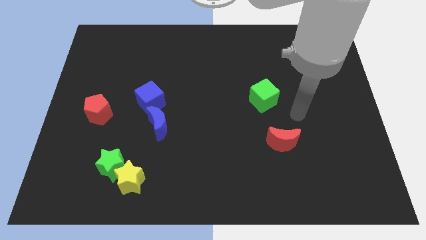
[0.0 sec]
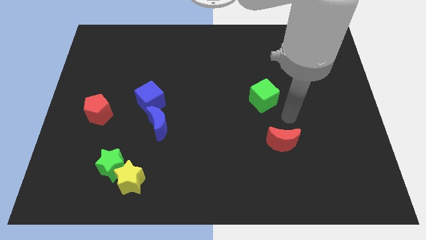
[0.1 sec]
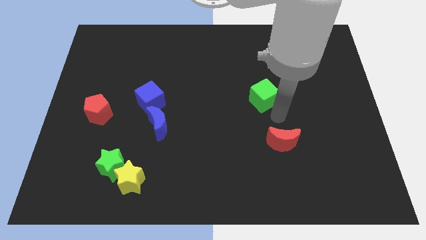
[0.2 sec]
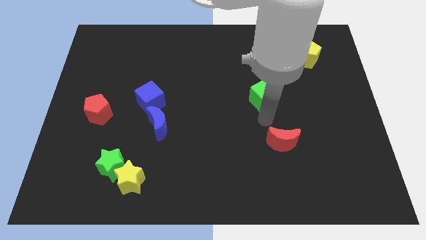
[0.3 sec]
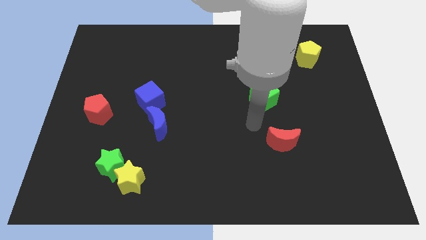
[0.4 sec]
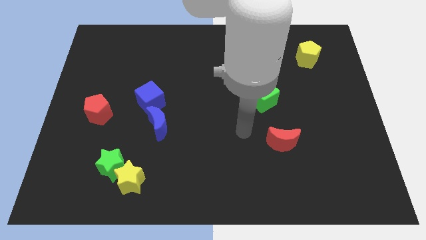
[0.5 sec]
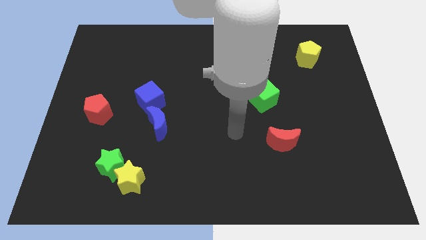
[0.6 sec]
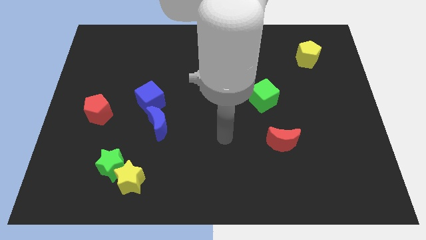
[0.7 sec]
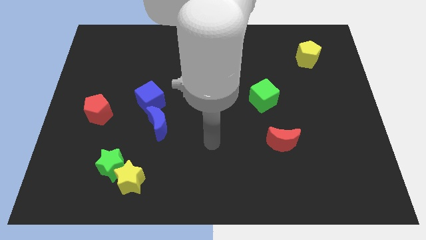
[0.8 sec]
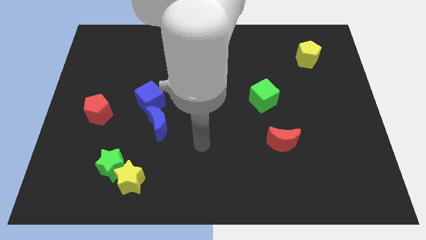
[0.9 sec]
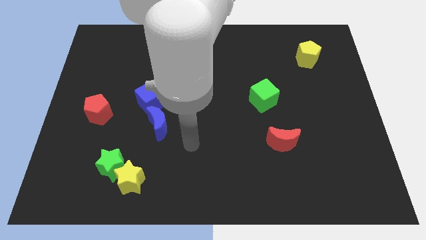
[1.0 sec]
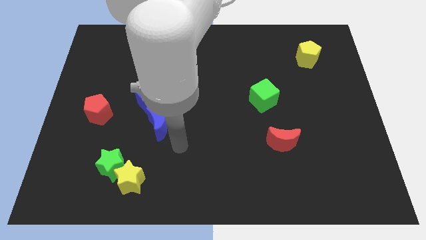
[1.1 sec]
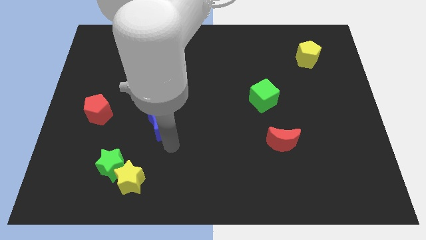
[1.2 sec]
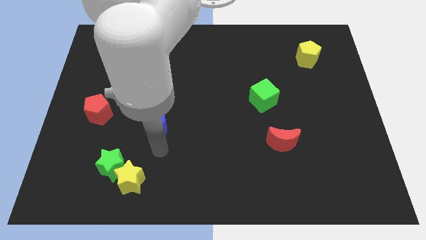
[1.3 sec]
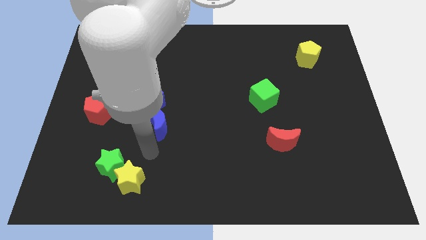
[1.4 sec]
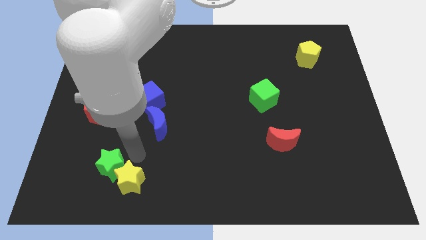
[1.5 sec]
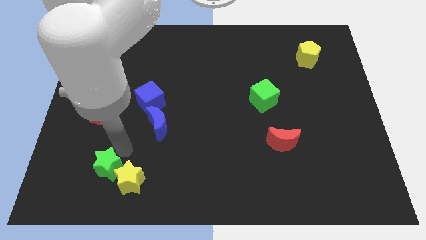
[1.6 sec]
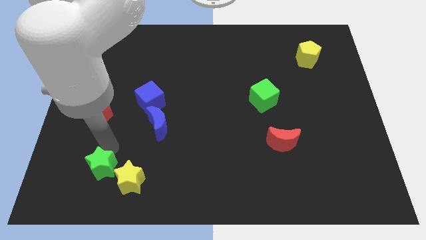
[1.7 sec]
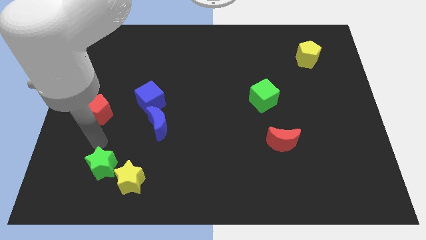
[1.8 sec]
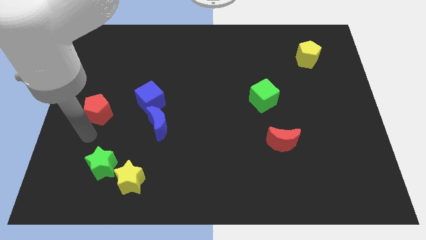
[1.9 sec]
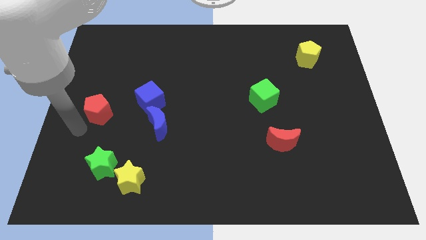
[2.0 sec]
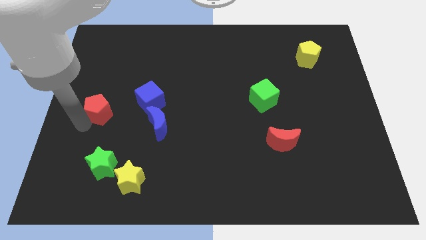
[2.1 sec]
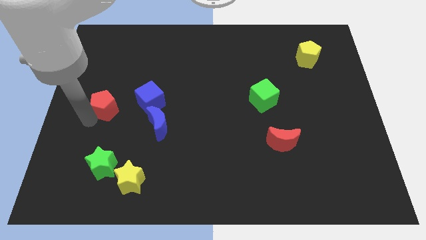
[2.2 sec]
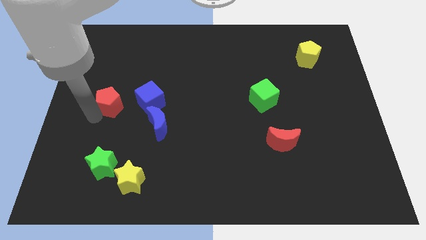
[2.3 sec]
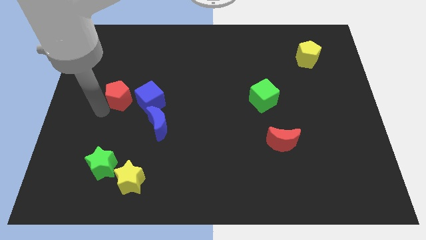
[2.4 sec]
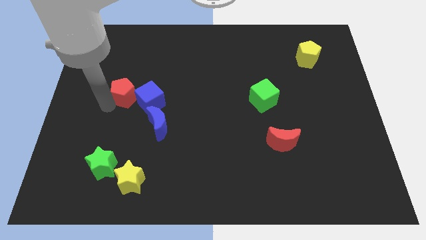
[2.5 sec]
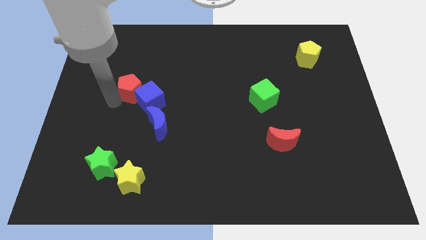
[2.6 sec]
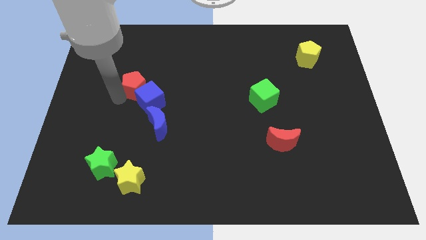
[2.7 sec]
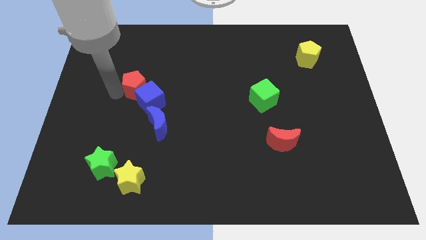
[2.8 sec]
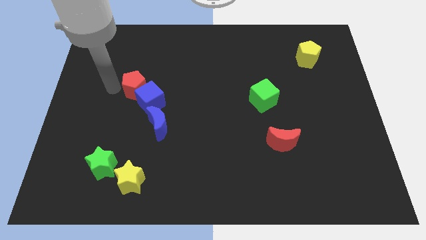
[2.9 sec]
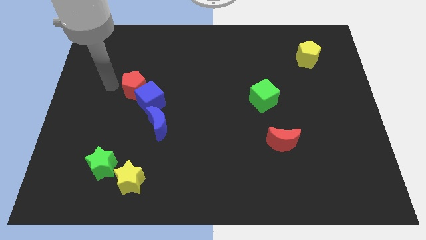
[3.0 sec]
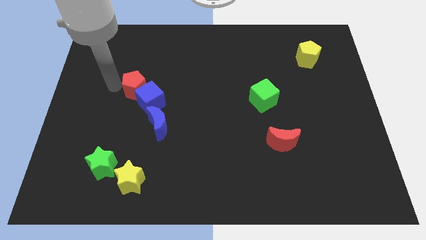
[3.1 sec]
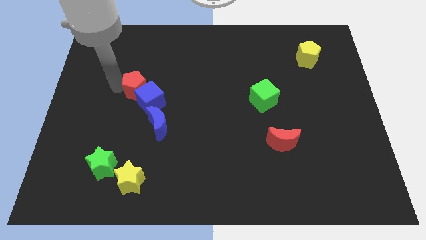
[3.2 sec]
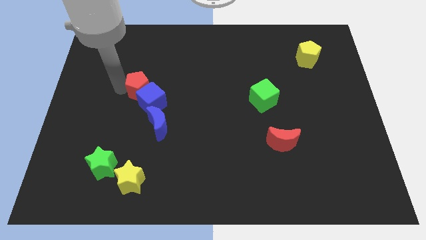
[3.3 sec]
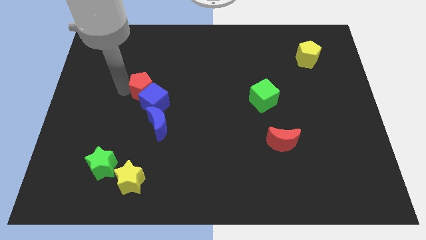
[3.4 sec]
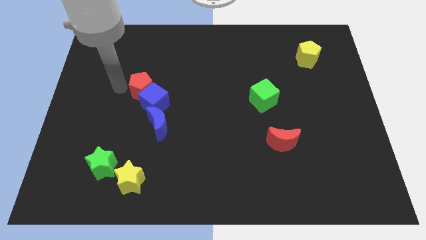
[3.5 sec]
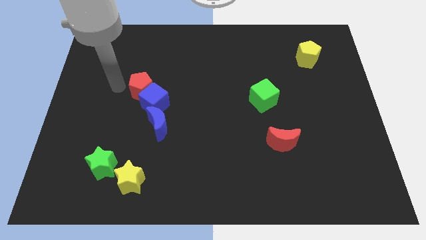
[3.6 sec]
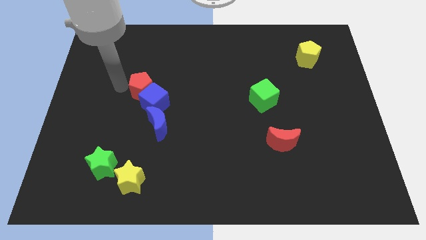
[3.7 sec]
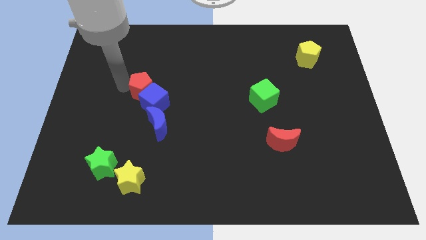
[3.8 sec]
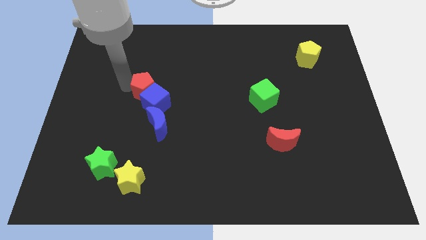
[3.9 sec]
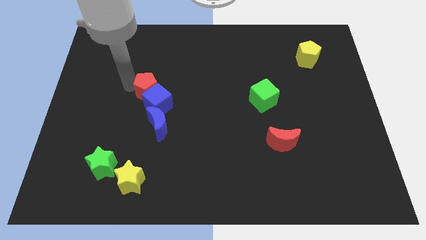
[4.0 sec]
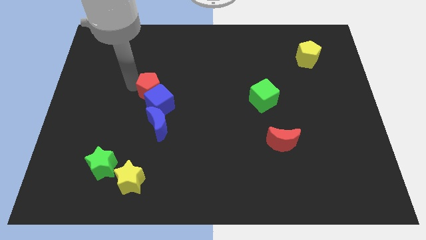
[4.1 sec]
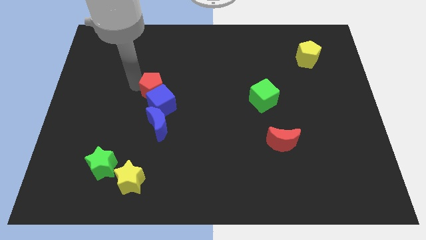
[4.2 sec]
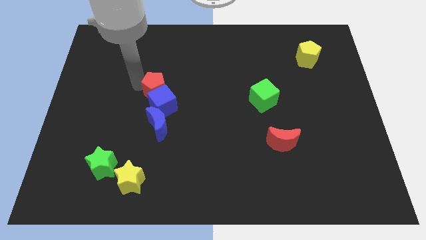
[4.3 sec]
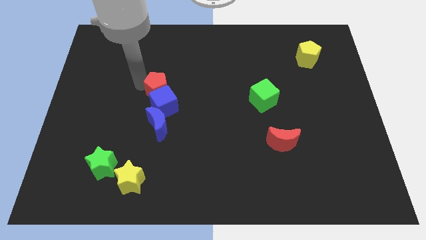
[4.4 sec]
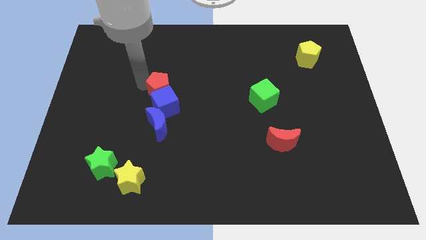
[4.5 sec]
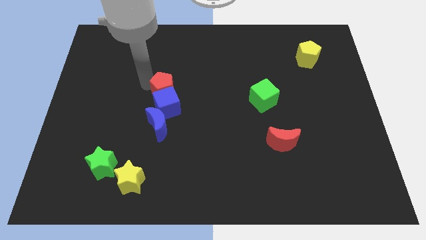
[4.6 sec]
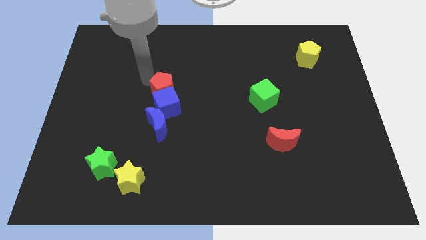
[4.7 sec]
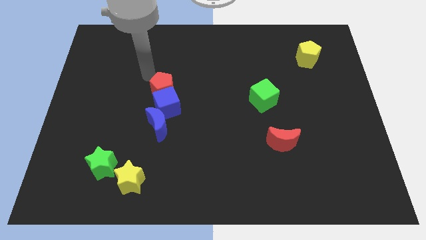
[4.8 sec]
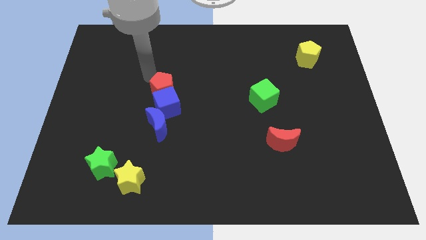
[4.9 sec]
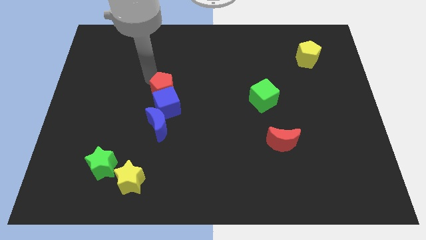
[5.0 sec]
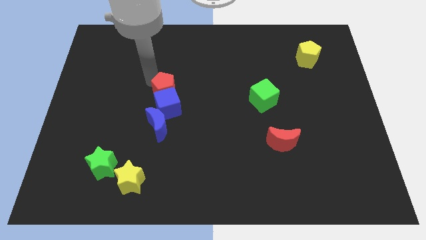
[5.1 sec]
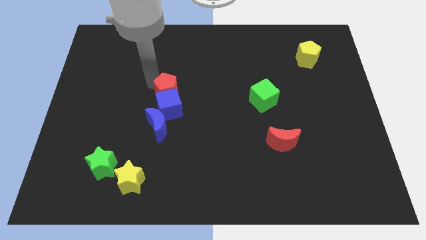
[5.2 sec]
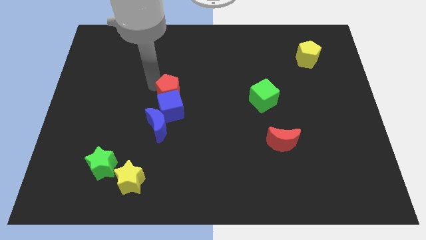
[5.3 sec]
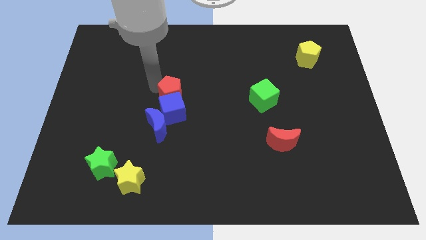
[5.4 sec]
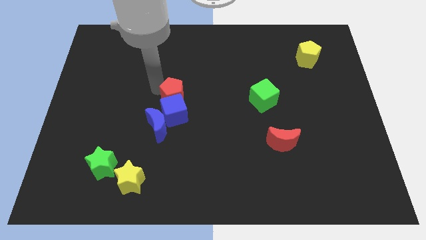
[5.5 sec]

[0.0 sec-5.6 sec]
push the red pentagon to the top right side of the blue moon

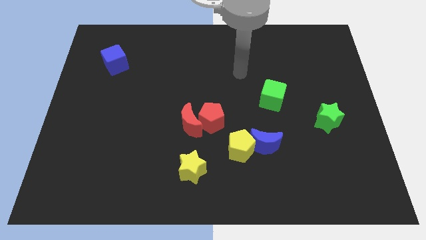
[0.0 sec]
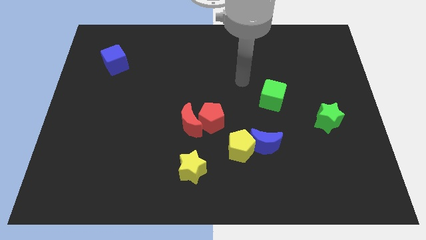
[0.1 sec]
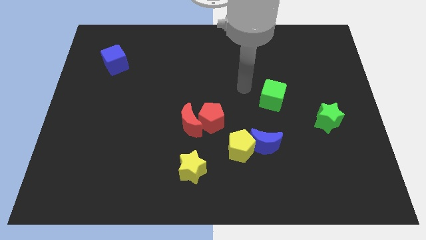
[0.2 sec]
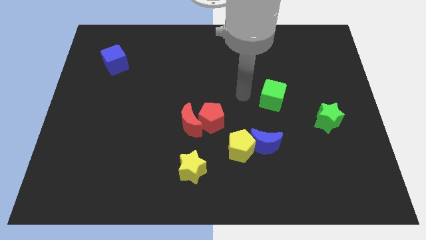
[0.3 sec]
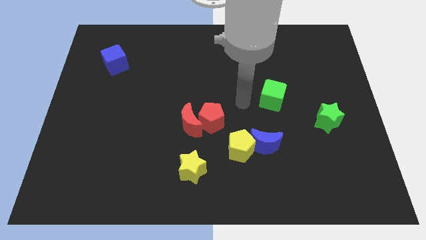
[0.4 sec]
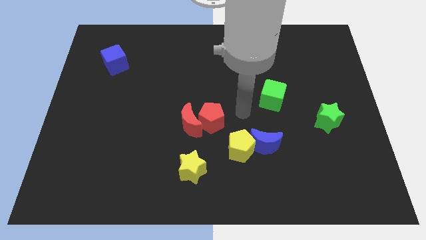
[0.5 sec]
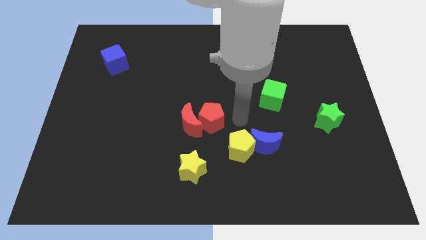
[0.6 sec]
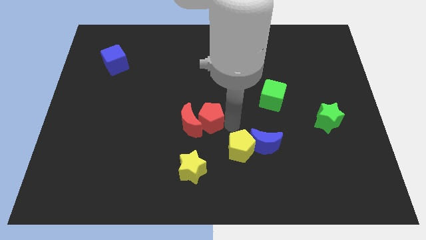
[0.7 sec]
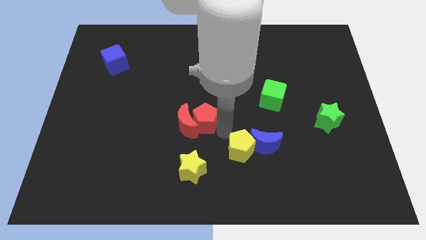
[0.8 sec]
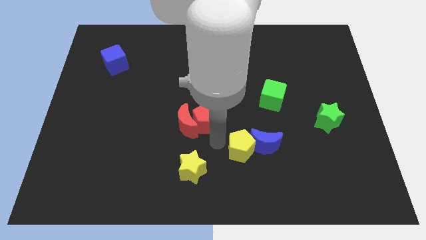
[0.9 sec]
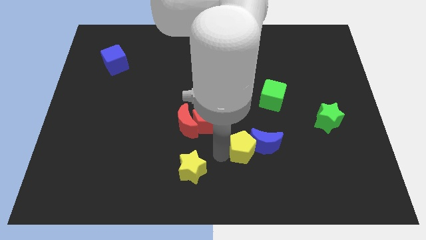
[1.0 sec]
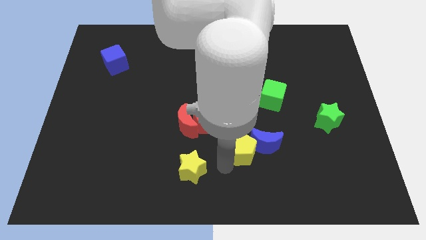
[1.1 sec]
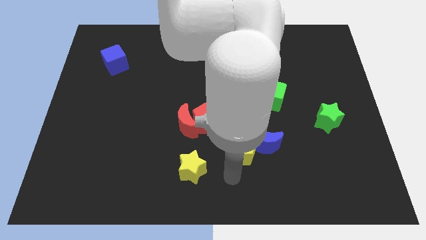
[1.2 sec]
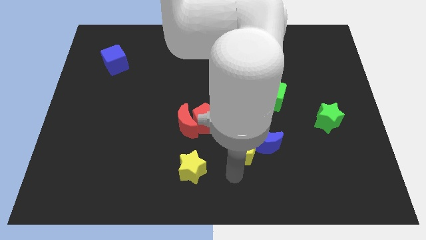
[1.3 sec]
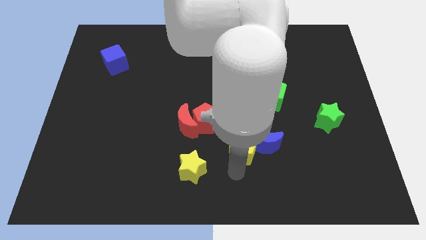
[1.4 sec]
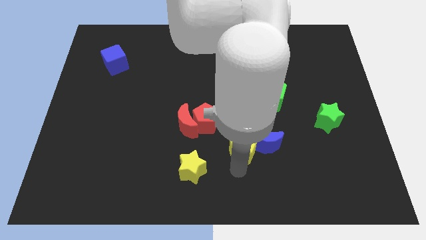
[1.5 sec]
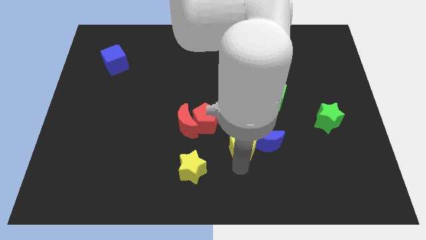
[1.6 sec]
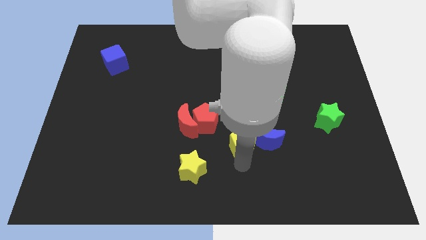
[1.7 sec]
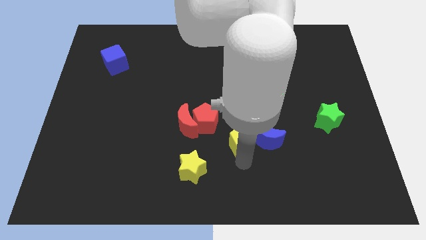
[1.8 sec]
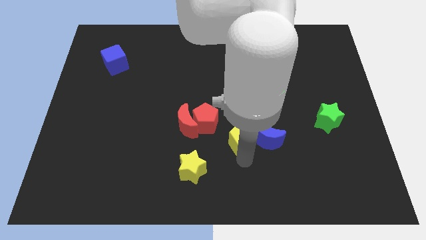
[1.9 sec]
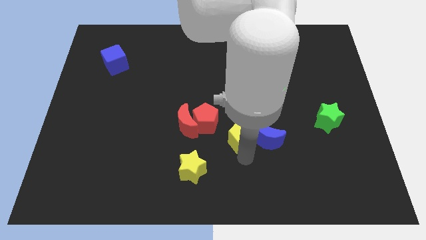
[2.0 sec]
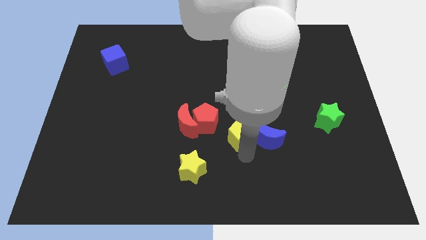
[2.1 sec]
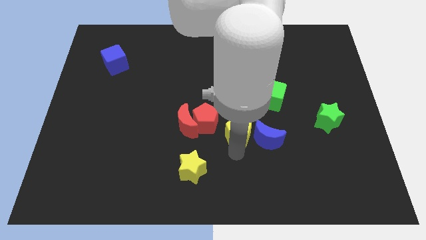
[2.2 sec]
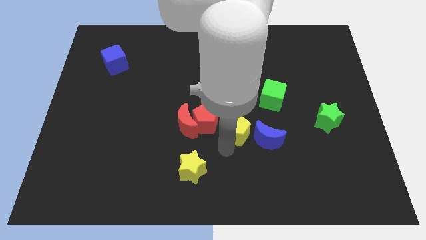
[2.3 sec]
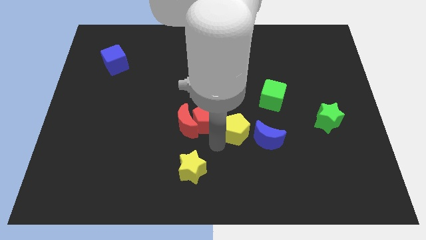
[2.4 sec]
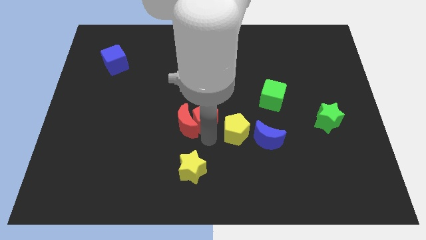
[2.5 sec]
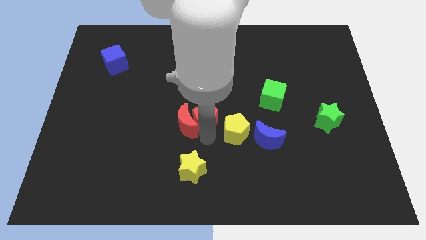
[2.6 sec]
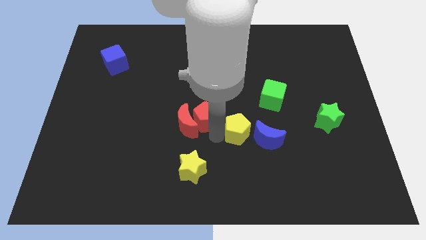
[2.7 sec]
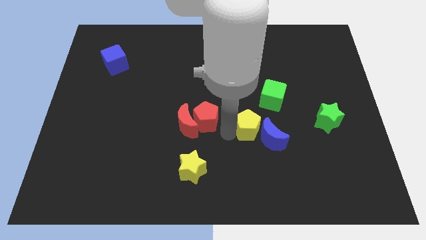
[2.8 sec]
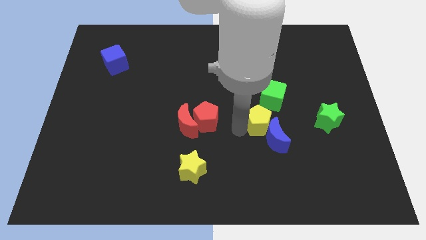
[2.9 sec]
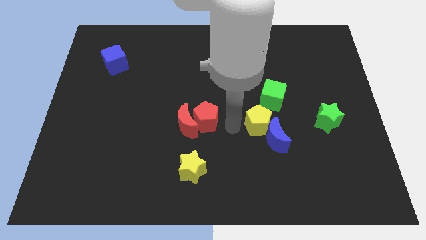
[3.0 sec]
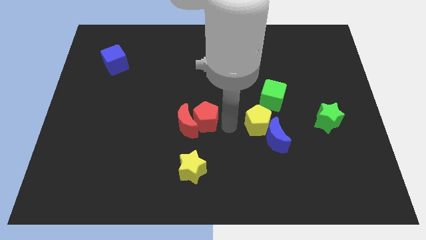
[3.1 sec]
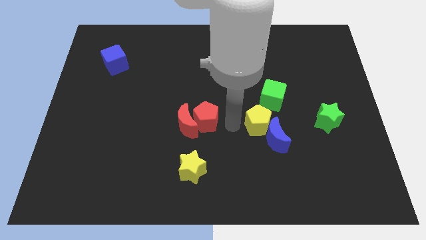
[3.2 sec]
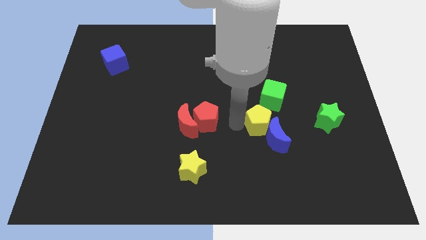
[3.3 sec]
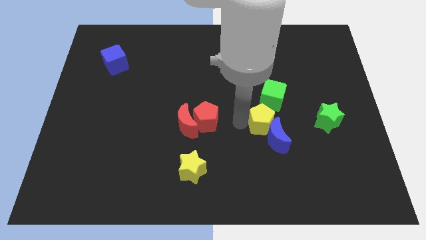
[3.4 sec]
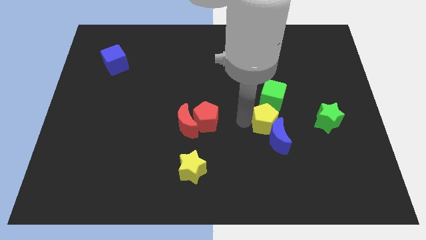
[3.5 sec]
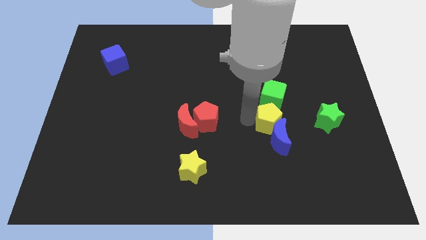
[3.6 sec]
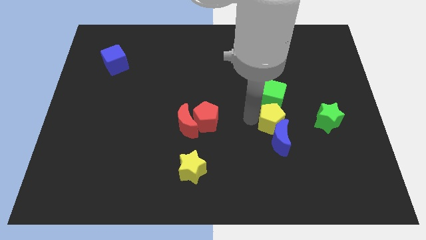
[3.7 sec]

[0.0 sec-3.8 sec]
push the yellow pentagon to the top right of the blue moon
